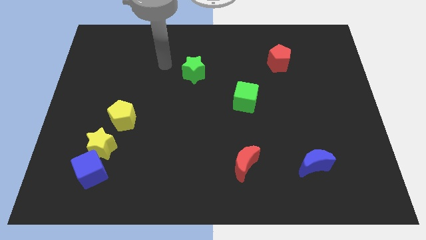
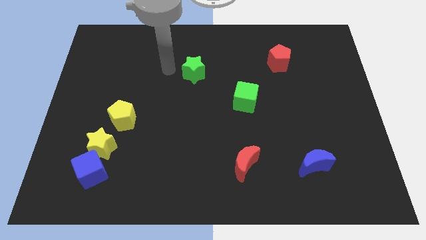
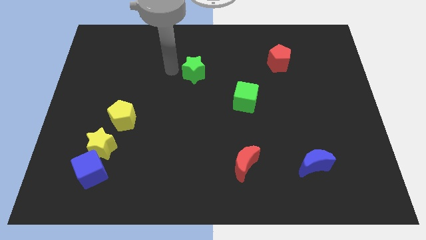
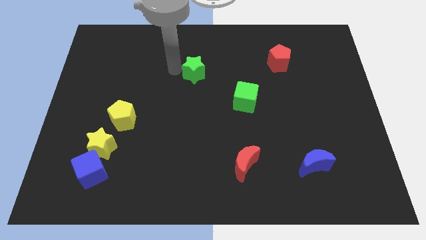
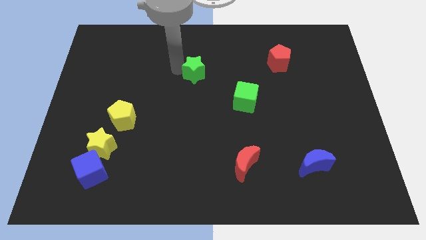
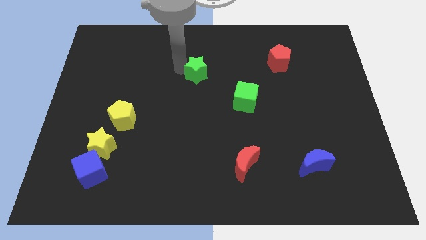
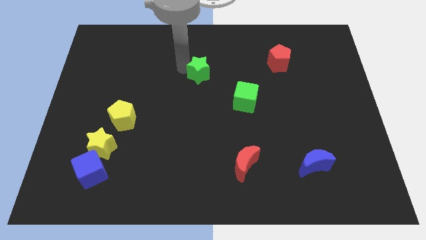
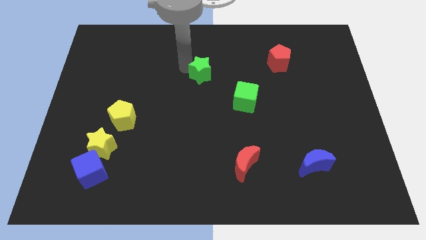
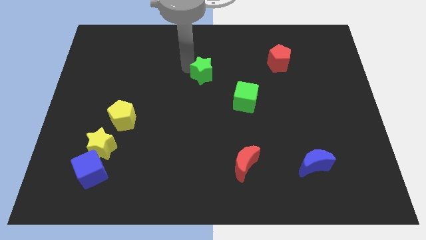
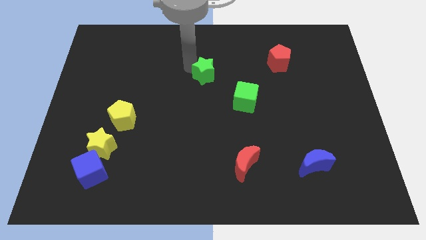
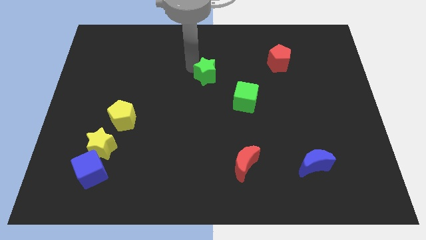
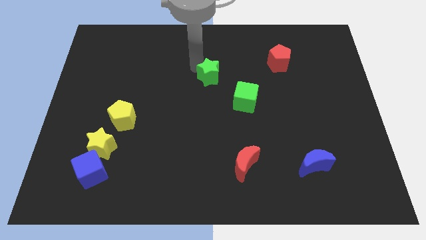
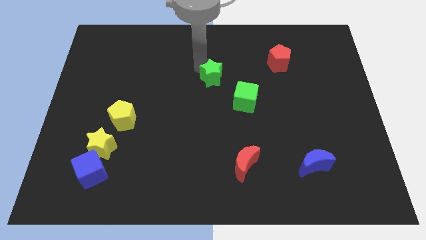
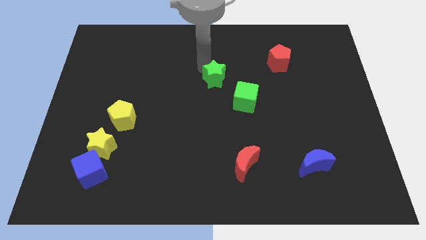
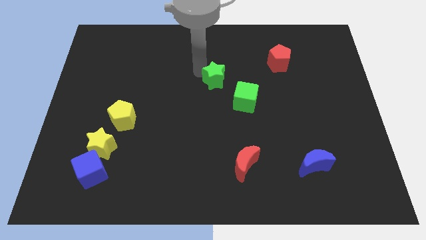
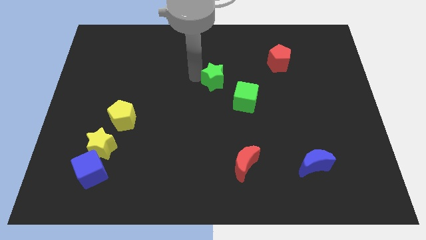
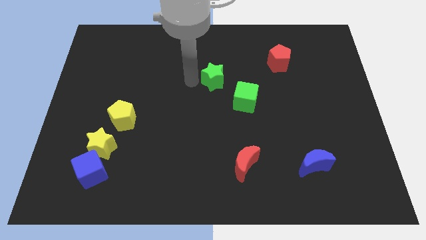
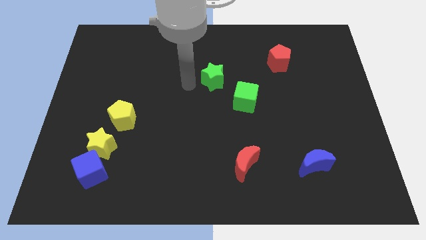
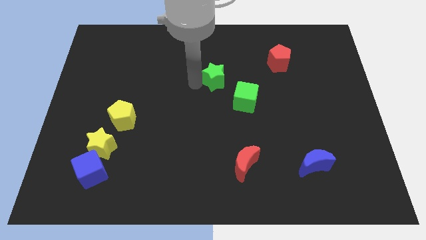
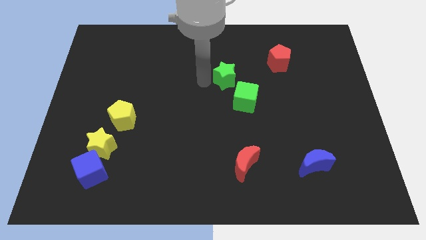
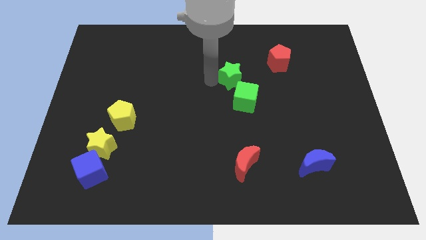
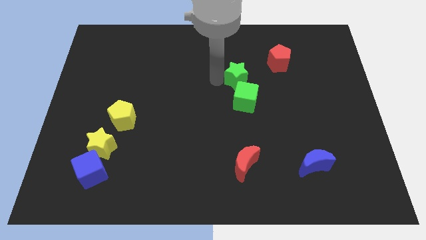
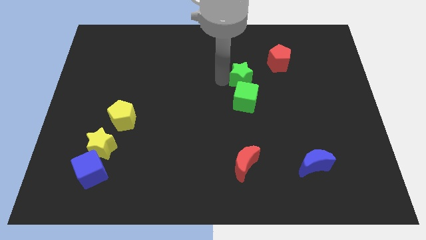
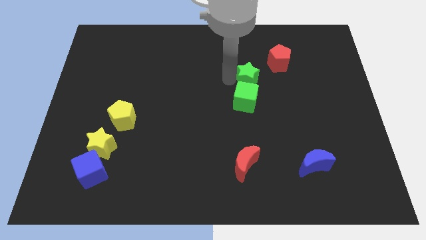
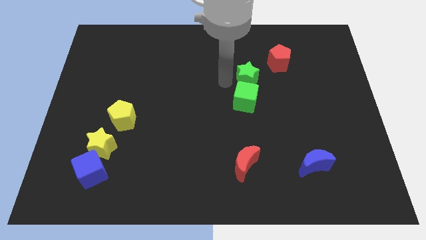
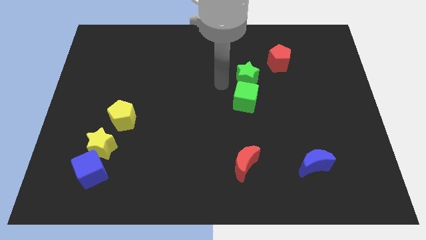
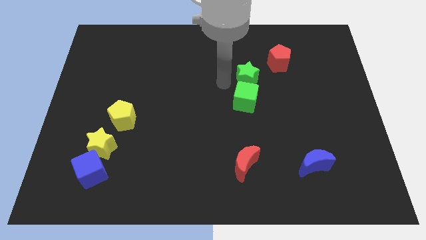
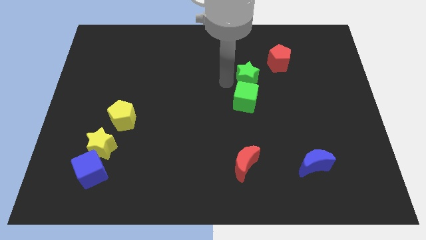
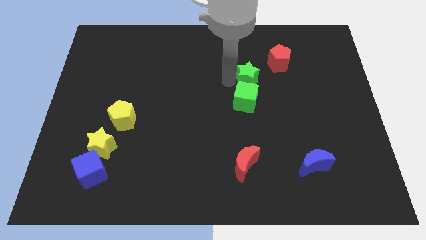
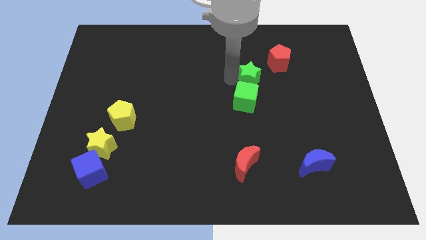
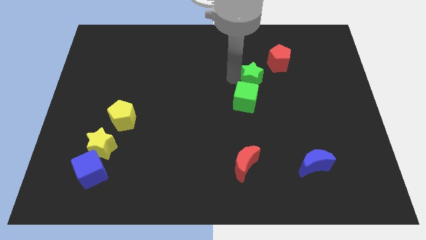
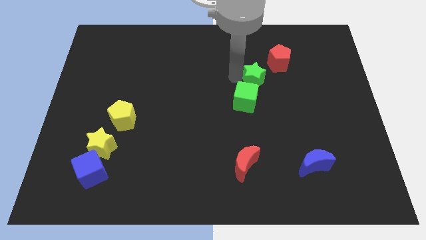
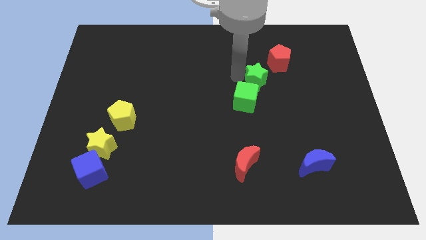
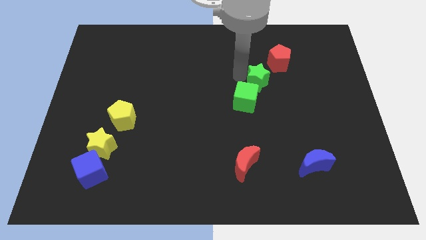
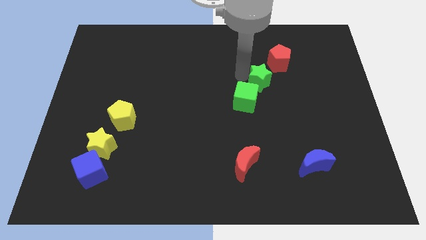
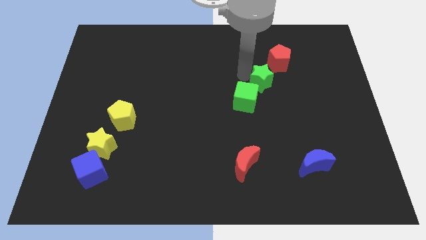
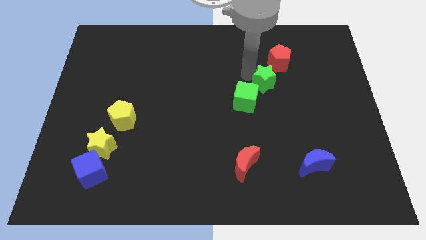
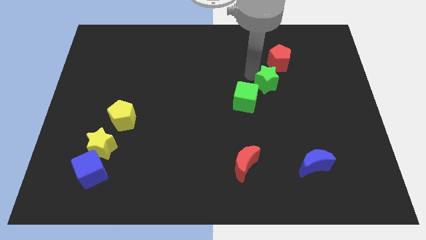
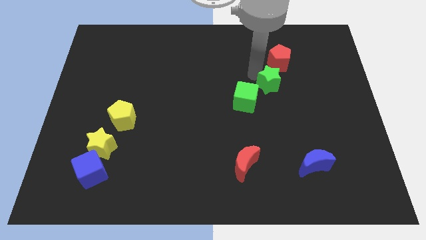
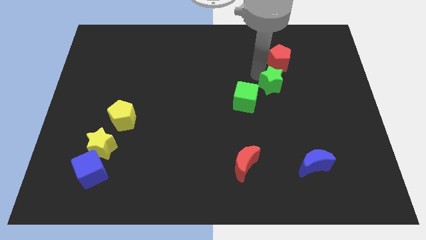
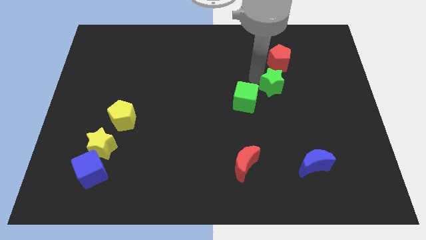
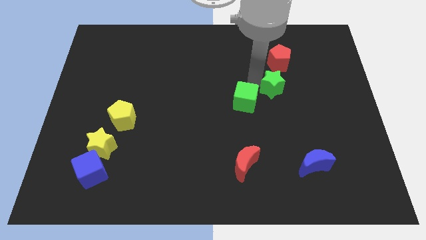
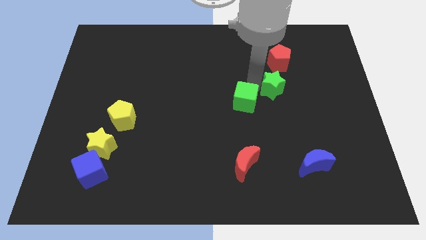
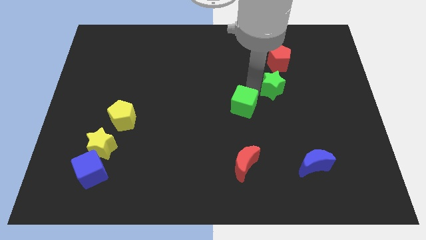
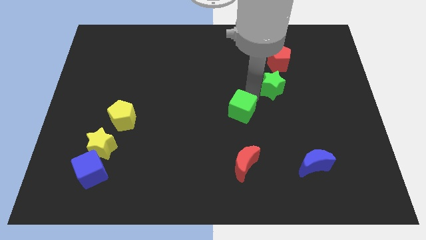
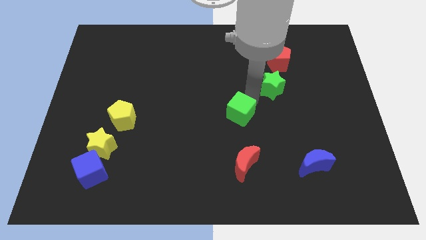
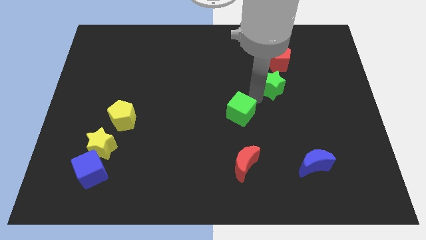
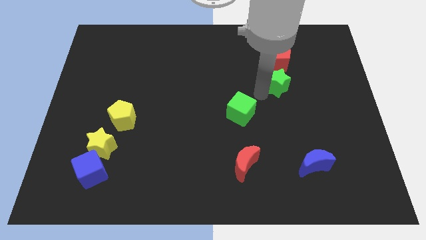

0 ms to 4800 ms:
move the green star to the right

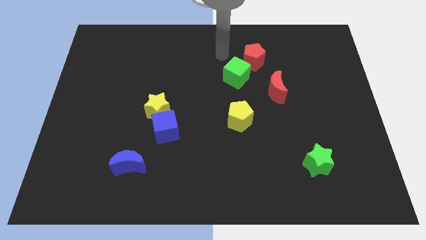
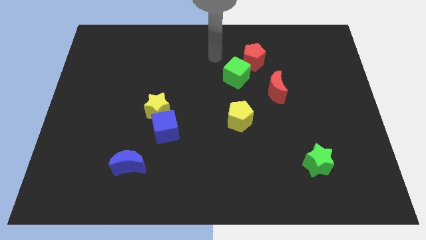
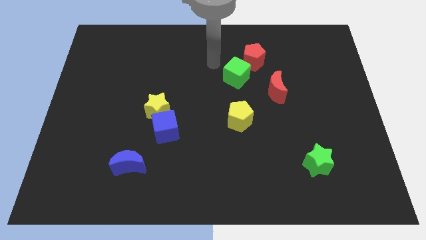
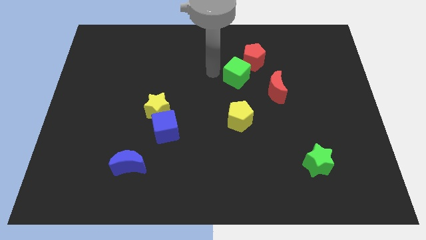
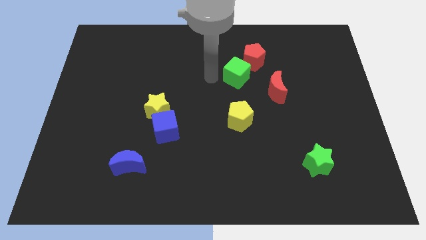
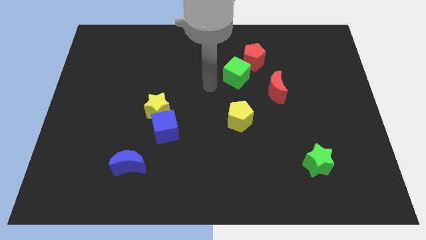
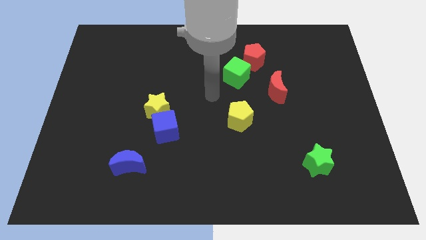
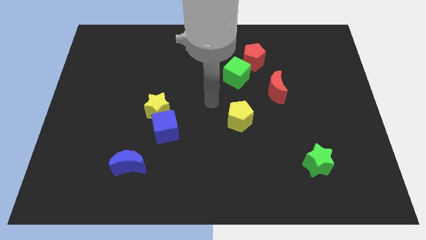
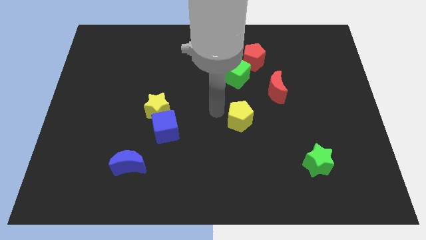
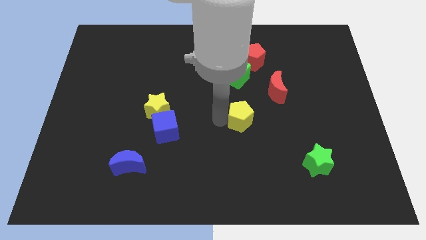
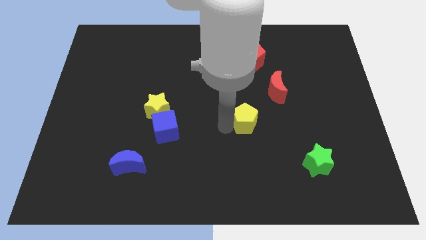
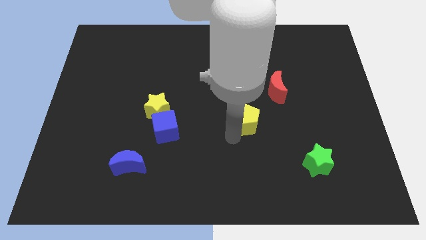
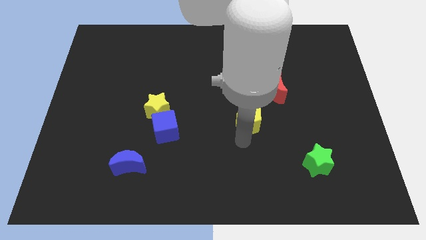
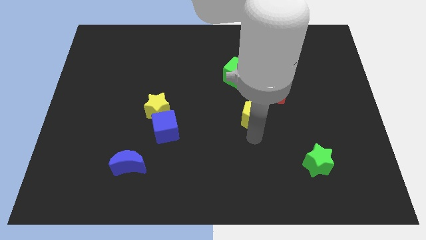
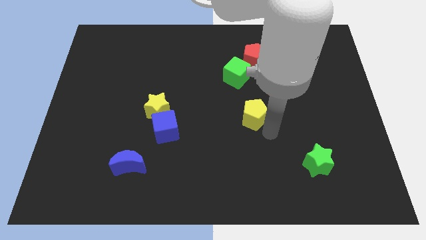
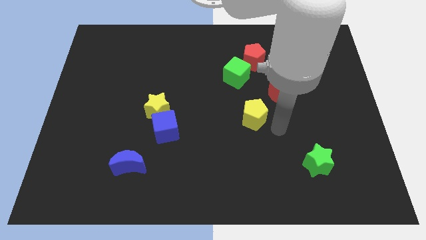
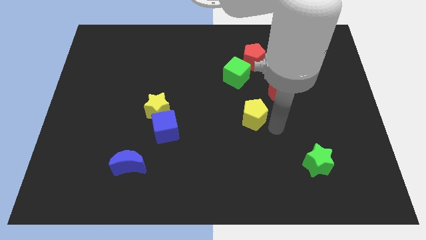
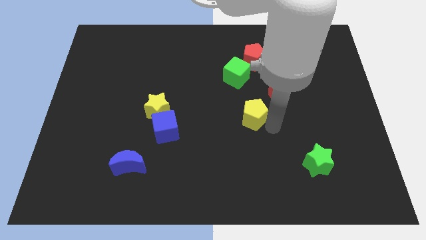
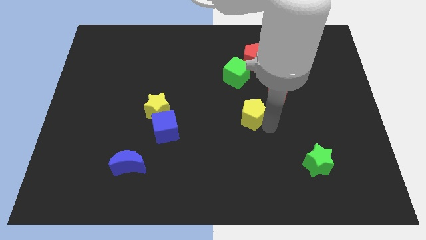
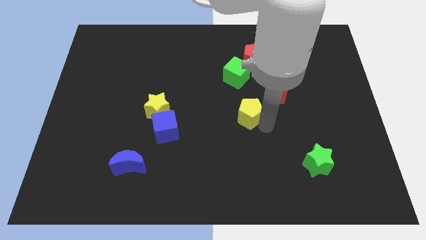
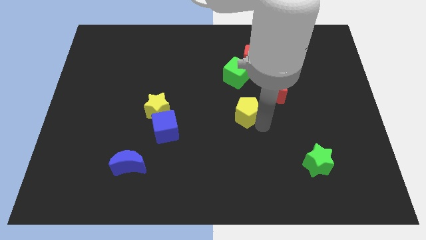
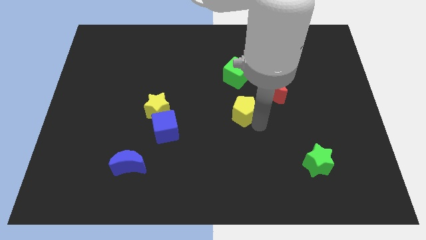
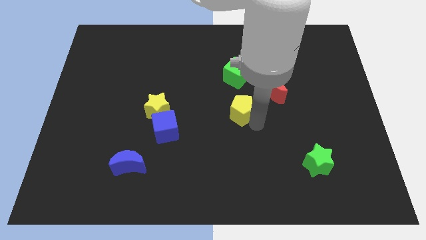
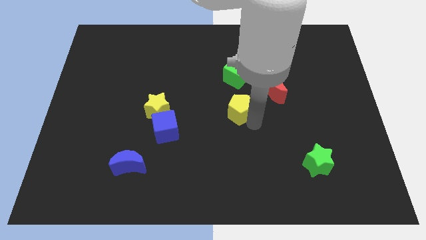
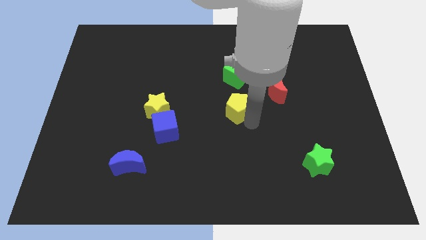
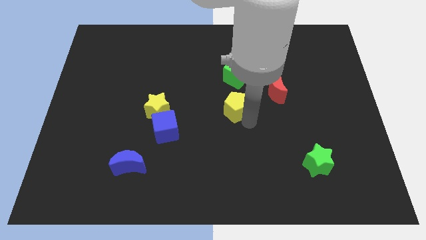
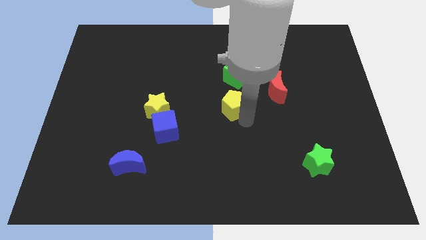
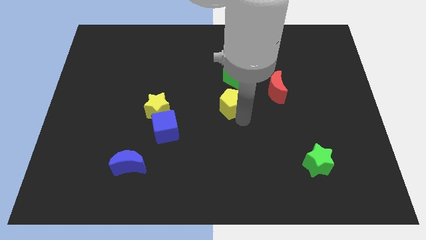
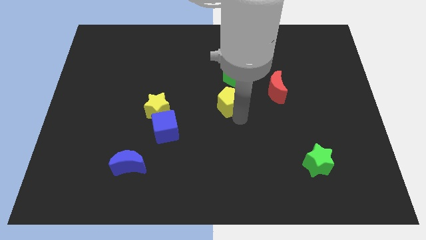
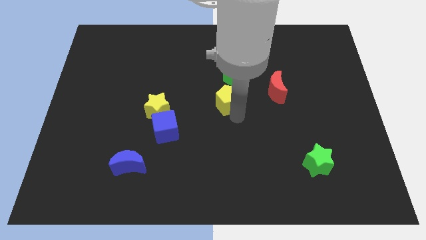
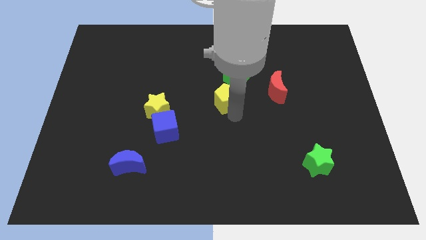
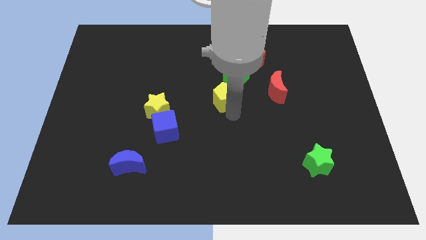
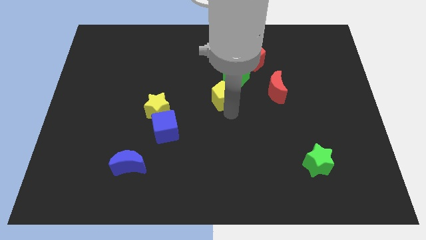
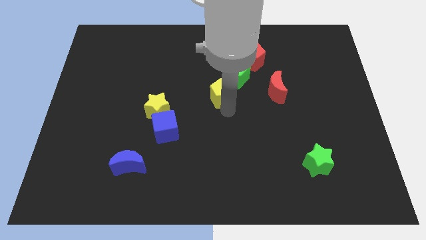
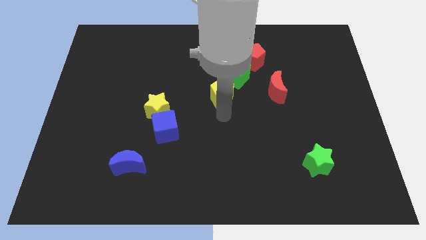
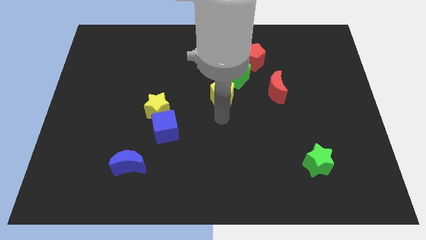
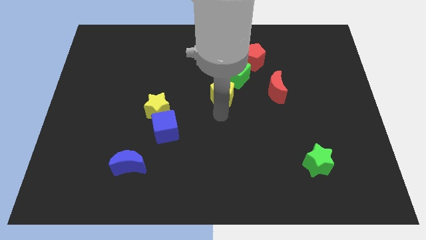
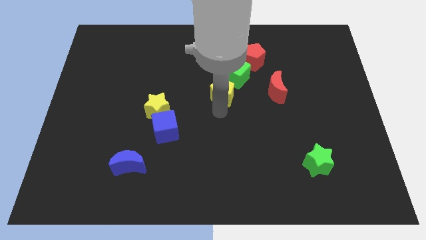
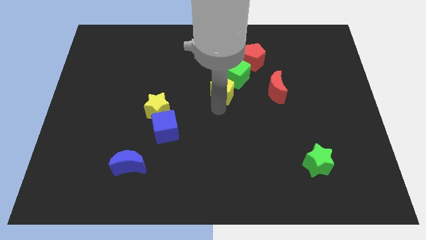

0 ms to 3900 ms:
move the yellow pentagon upwards somewhat
